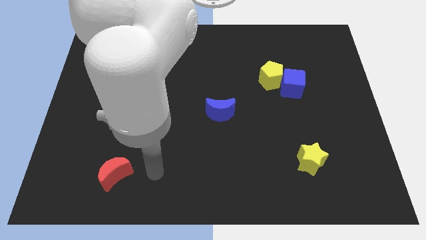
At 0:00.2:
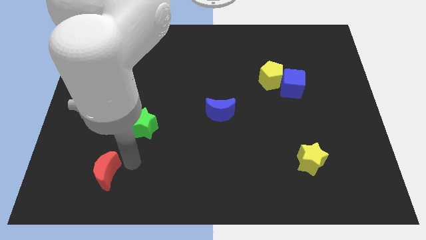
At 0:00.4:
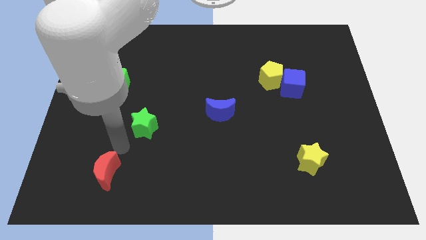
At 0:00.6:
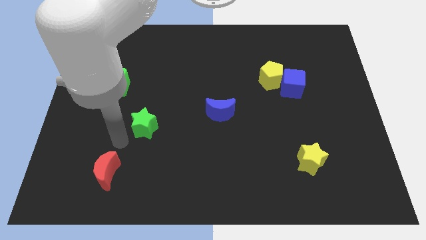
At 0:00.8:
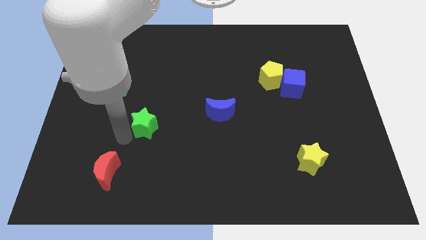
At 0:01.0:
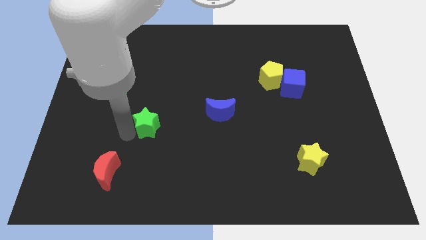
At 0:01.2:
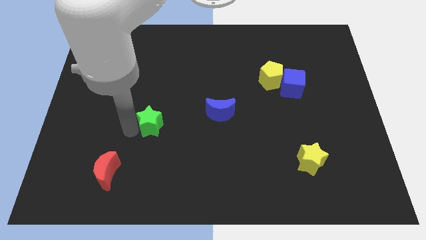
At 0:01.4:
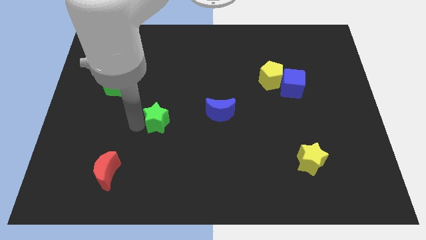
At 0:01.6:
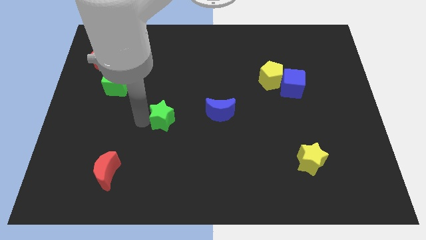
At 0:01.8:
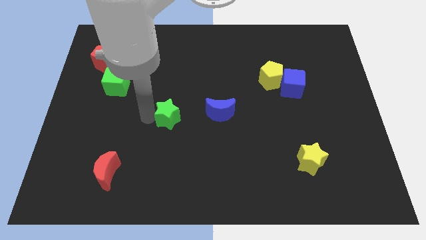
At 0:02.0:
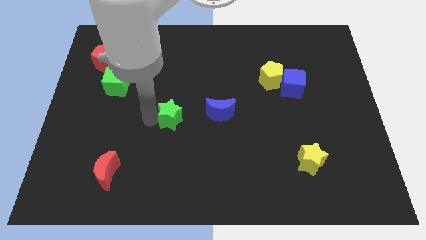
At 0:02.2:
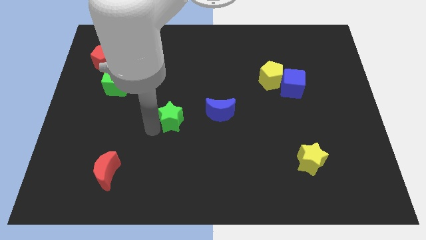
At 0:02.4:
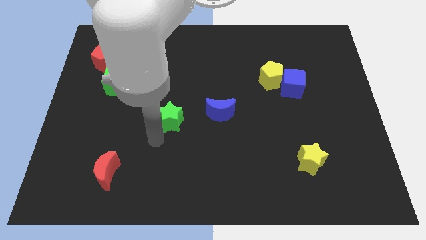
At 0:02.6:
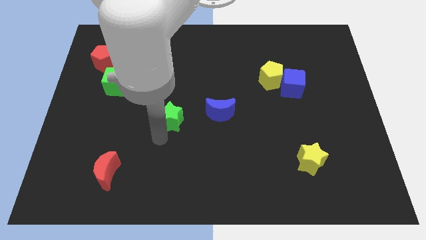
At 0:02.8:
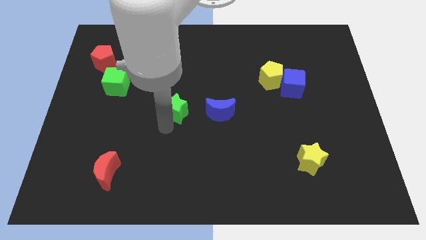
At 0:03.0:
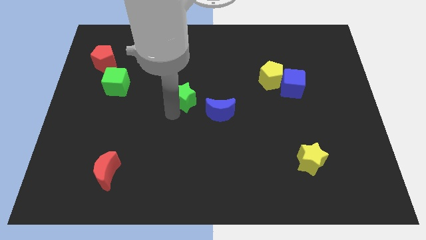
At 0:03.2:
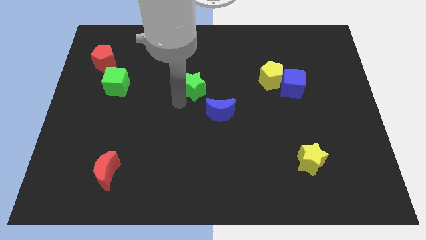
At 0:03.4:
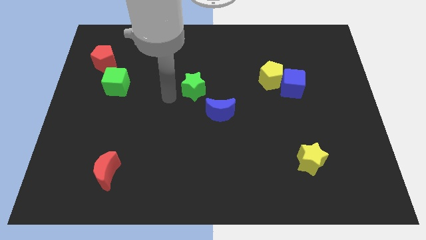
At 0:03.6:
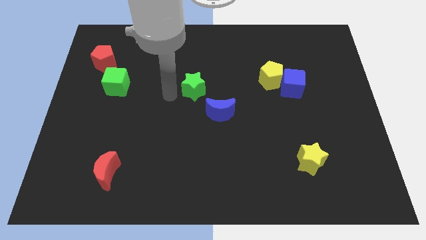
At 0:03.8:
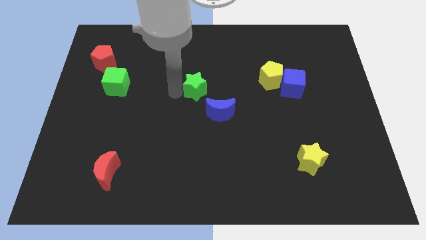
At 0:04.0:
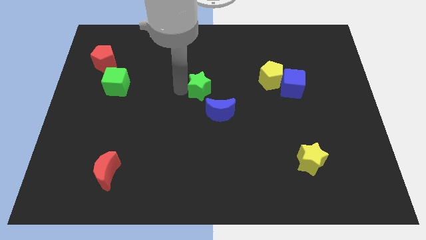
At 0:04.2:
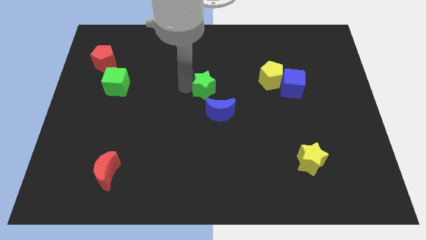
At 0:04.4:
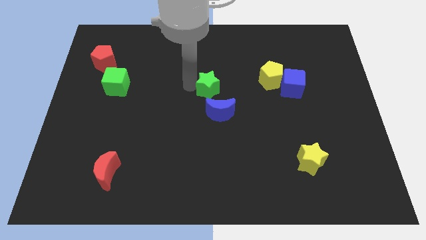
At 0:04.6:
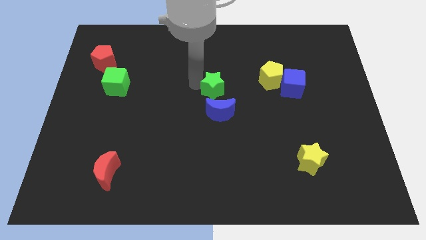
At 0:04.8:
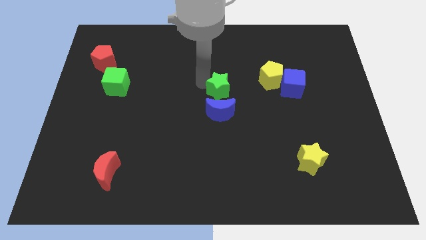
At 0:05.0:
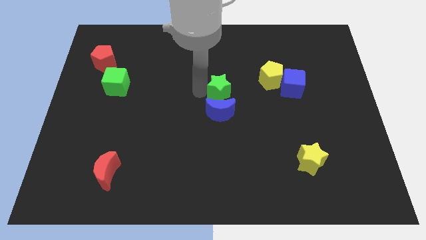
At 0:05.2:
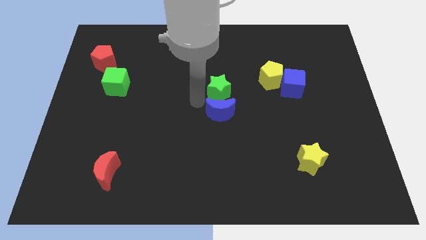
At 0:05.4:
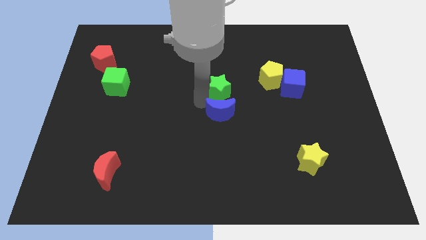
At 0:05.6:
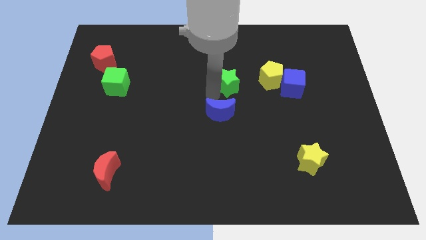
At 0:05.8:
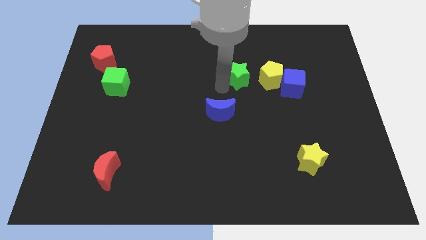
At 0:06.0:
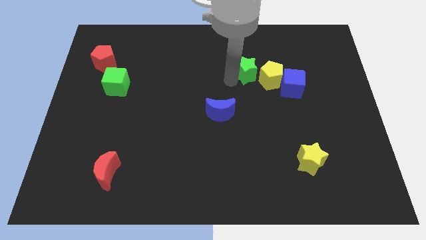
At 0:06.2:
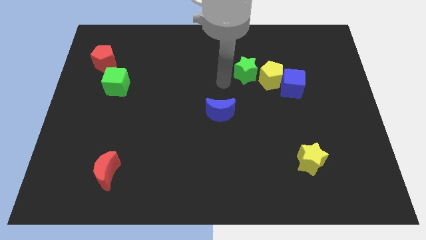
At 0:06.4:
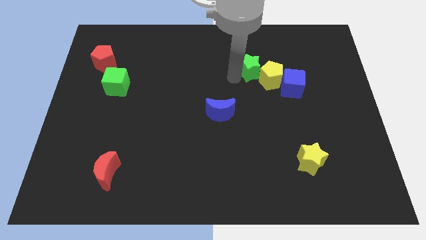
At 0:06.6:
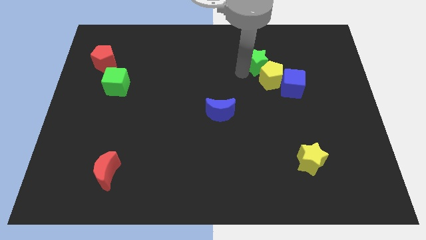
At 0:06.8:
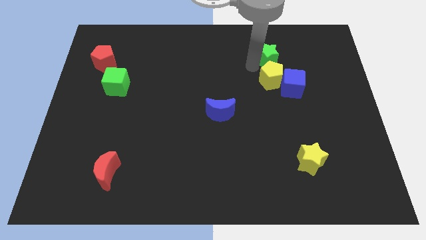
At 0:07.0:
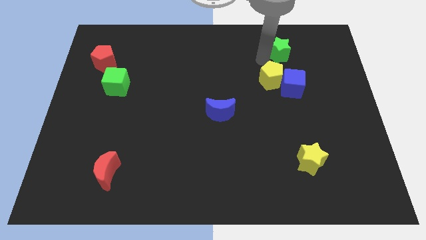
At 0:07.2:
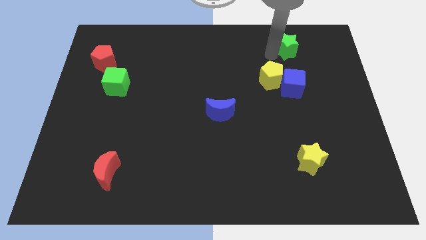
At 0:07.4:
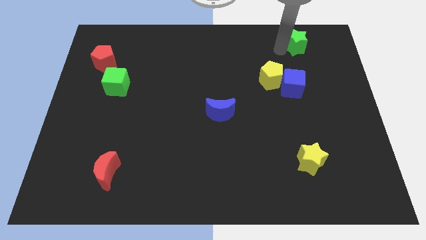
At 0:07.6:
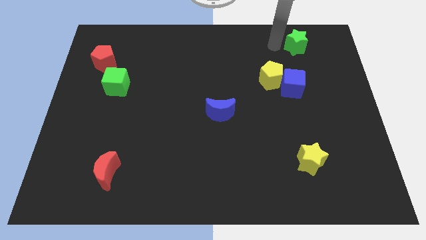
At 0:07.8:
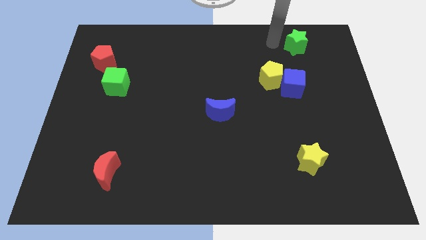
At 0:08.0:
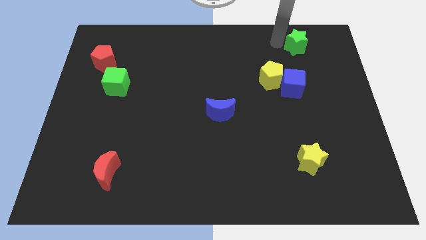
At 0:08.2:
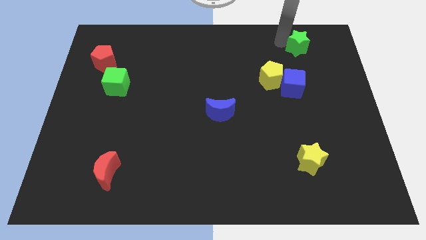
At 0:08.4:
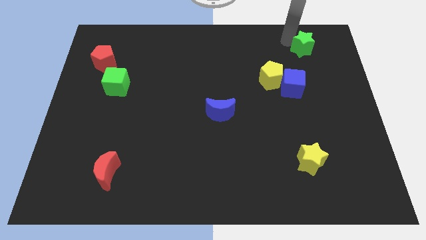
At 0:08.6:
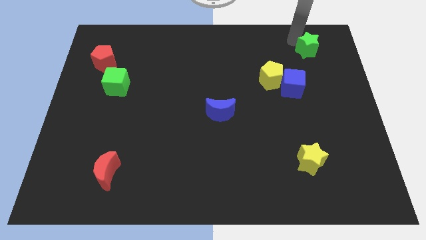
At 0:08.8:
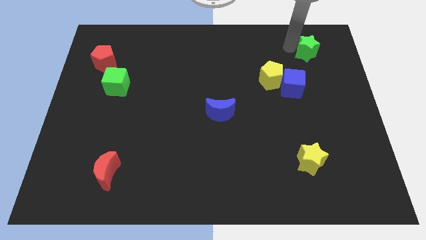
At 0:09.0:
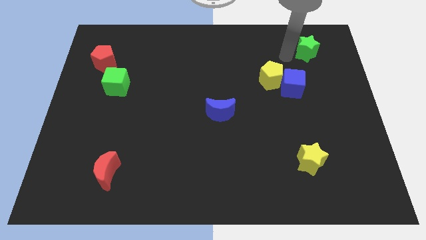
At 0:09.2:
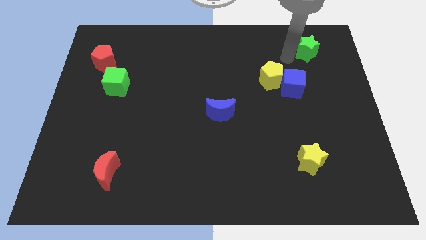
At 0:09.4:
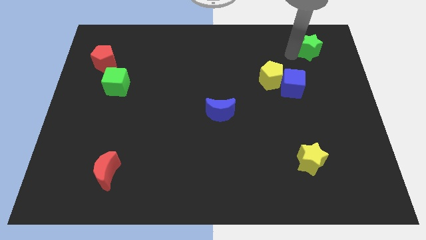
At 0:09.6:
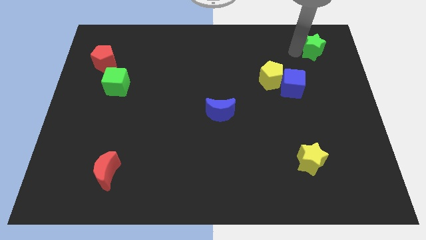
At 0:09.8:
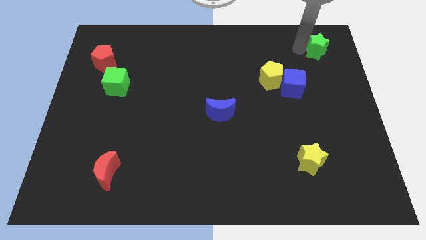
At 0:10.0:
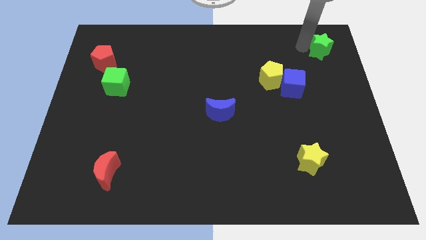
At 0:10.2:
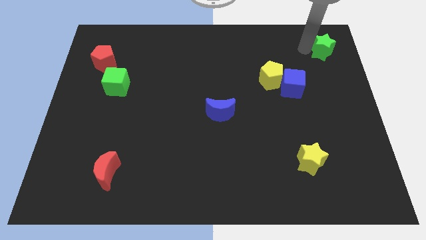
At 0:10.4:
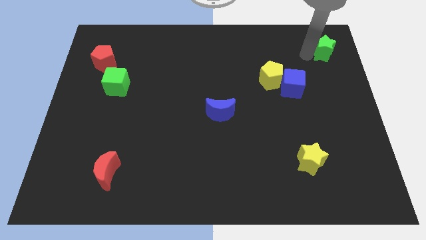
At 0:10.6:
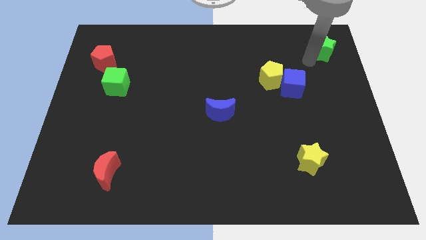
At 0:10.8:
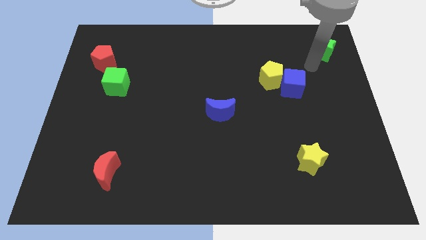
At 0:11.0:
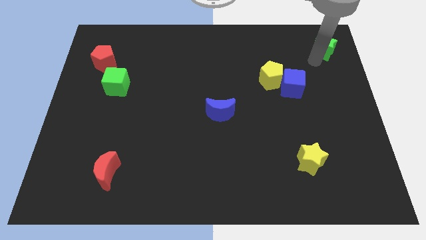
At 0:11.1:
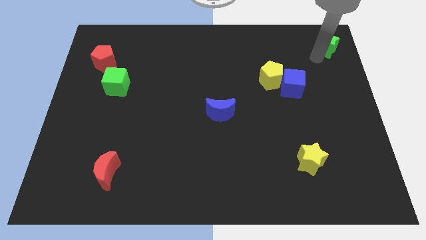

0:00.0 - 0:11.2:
slide the green star to the upper right corner

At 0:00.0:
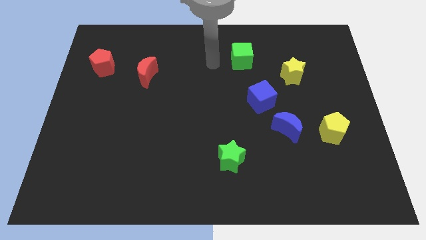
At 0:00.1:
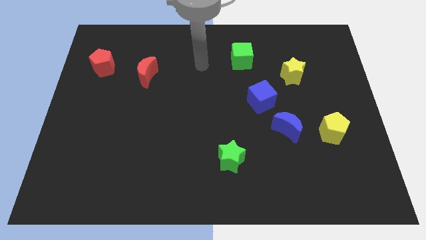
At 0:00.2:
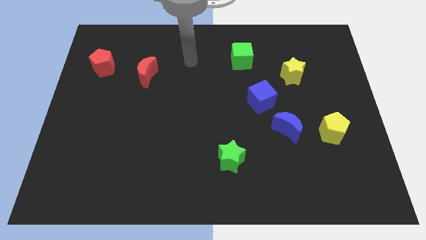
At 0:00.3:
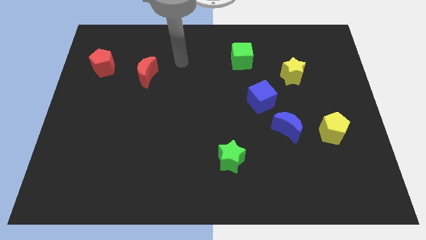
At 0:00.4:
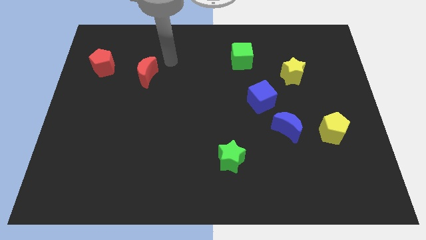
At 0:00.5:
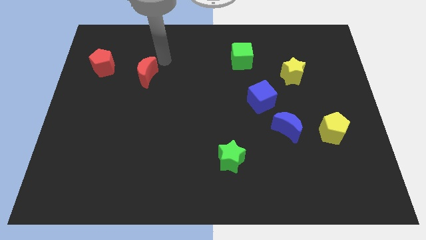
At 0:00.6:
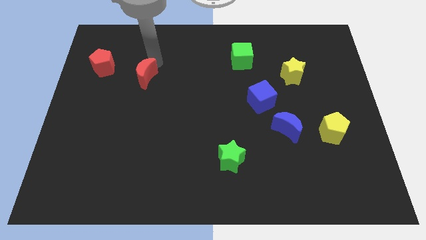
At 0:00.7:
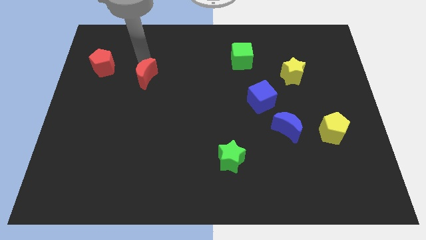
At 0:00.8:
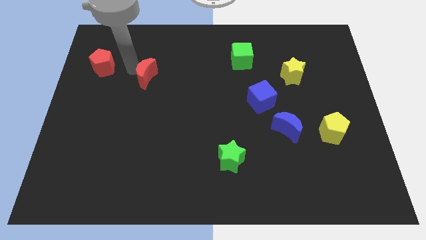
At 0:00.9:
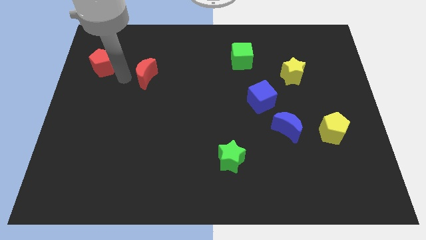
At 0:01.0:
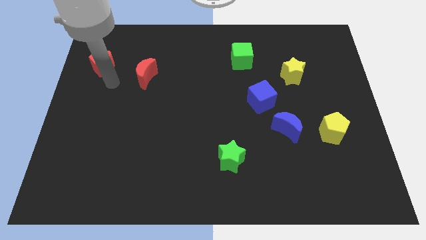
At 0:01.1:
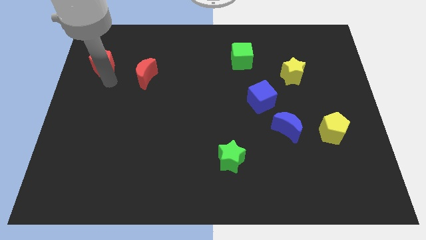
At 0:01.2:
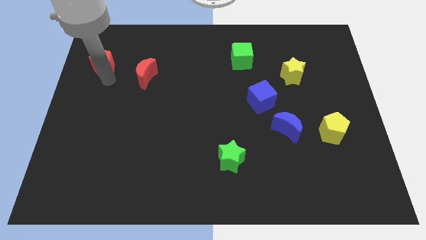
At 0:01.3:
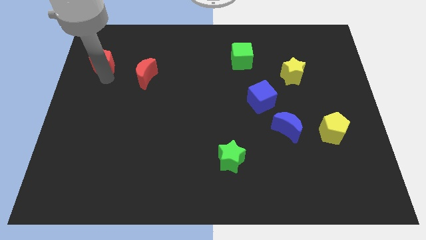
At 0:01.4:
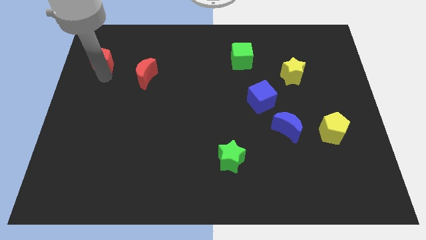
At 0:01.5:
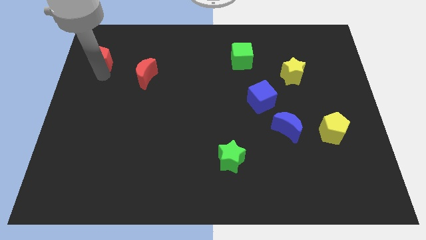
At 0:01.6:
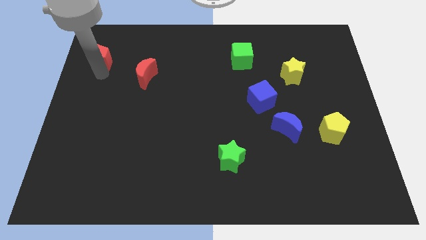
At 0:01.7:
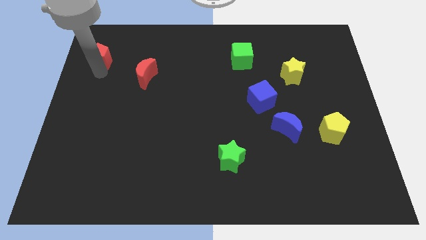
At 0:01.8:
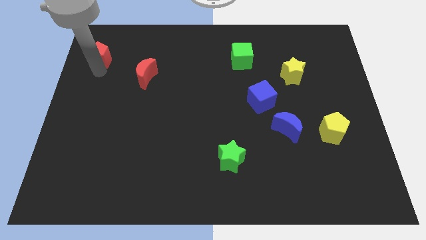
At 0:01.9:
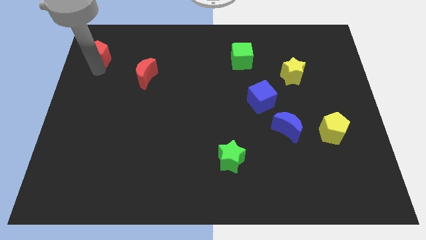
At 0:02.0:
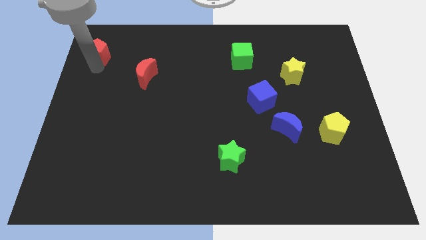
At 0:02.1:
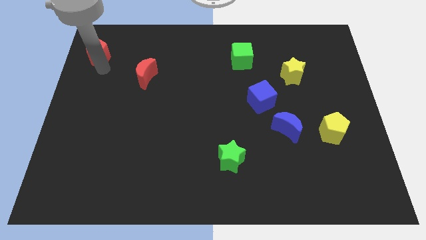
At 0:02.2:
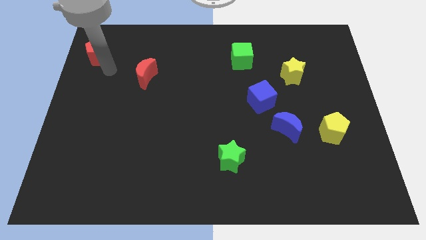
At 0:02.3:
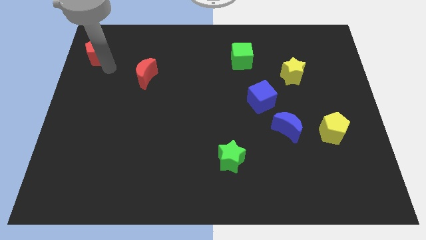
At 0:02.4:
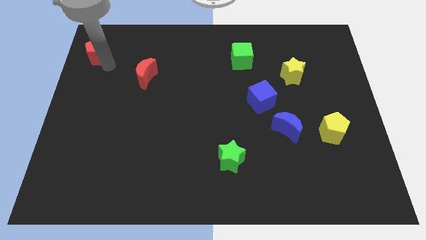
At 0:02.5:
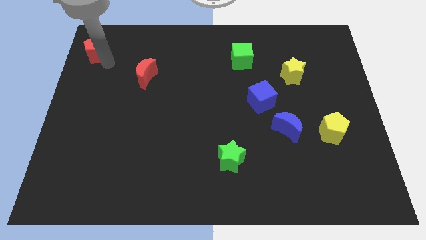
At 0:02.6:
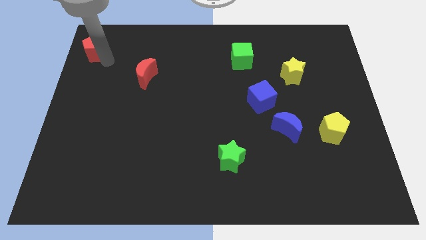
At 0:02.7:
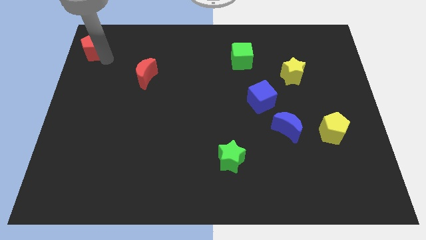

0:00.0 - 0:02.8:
slide the red pentagon to the top left corner
